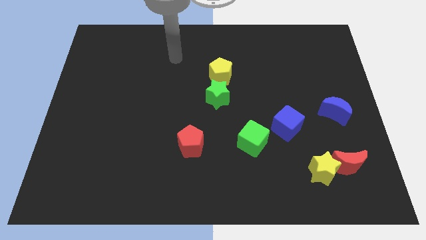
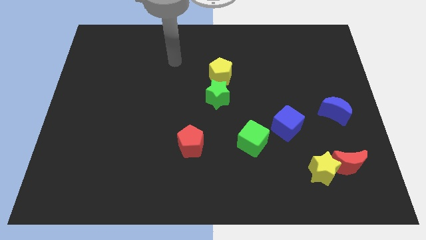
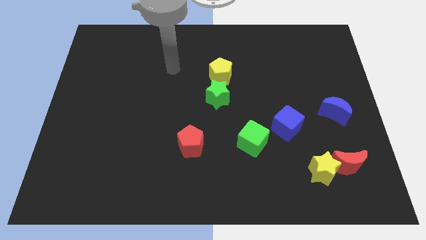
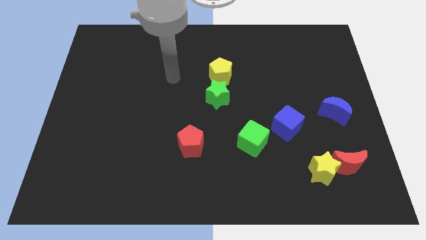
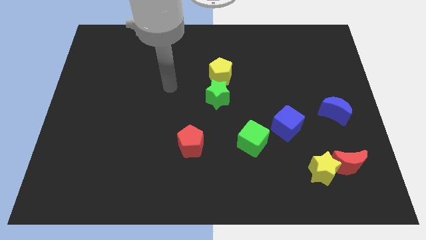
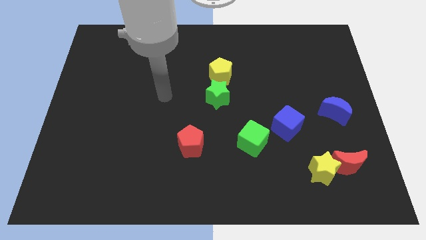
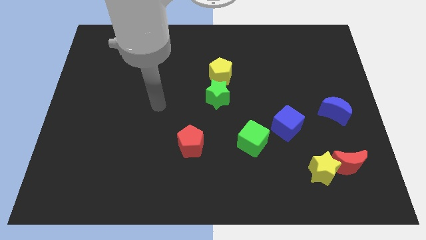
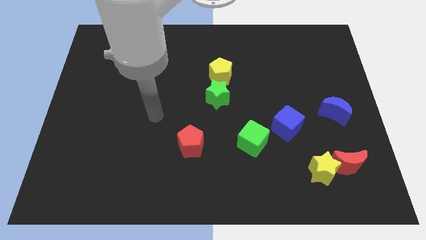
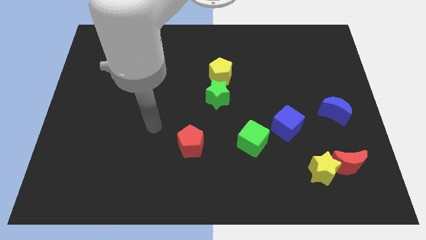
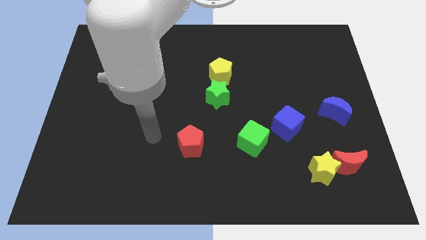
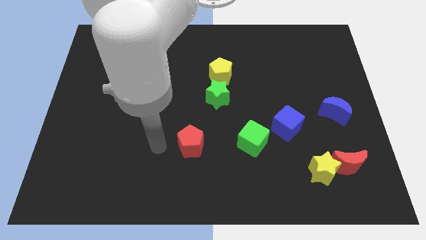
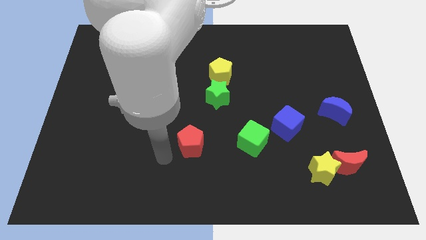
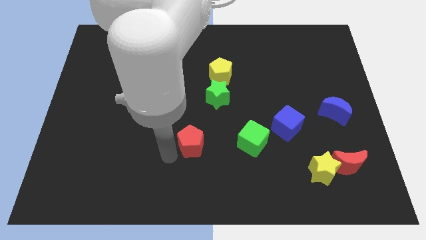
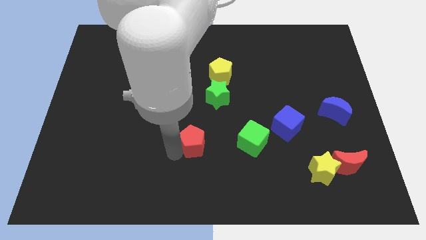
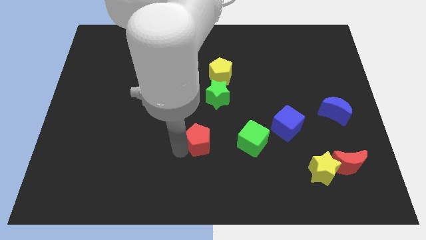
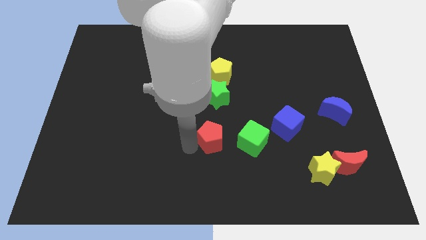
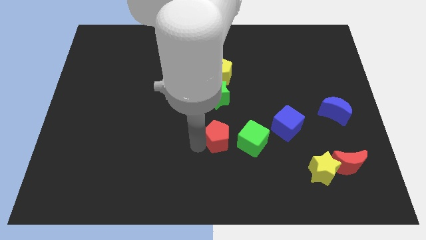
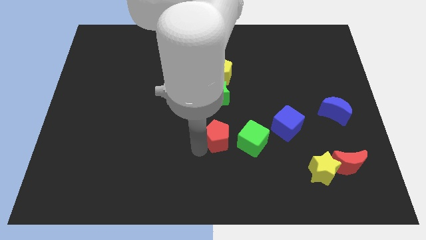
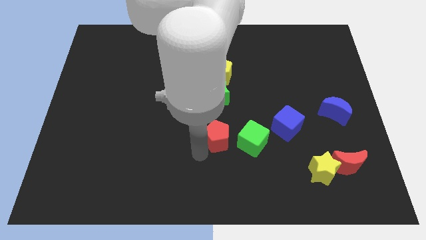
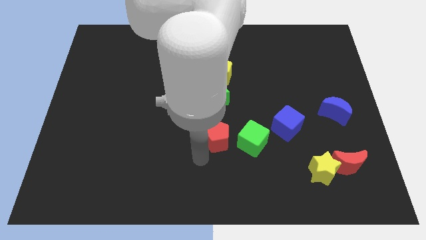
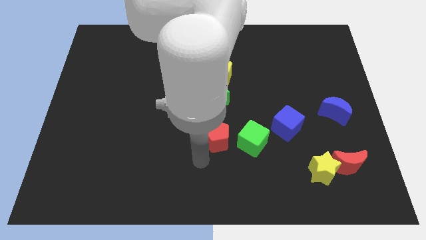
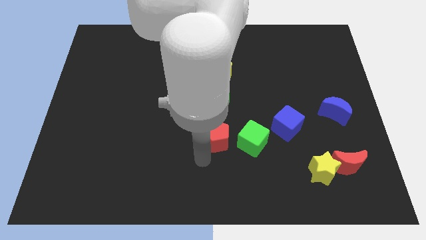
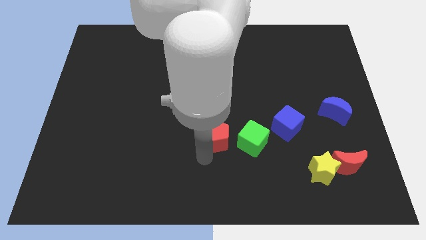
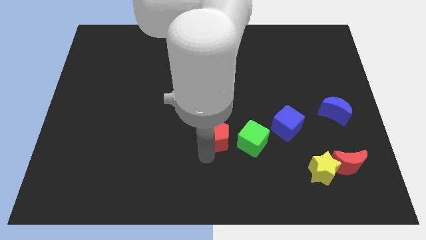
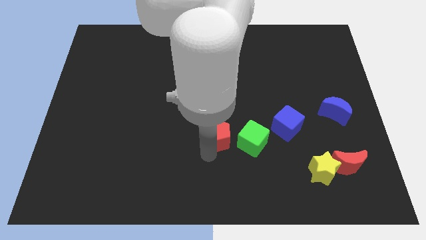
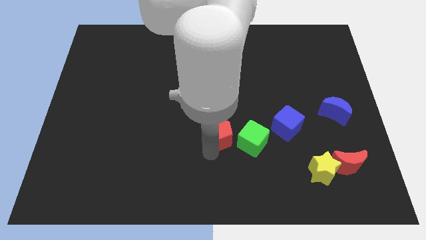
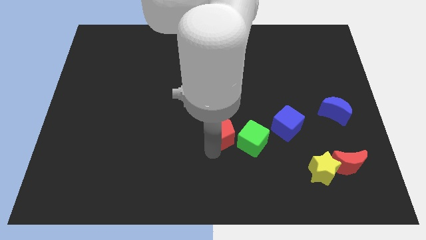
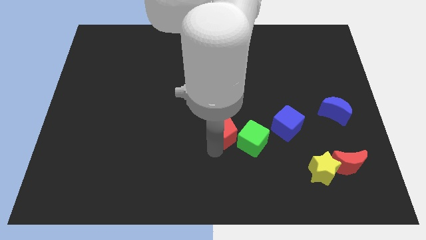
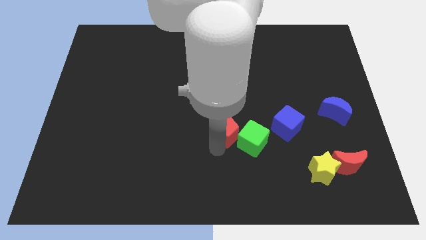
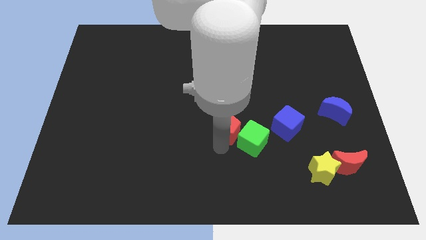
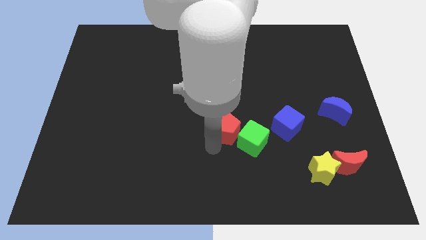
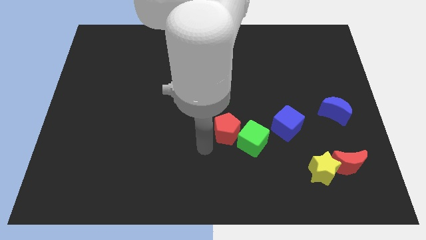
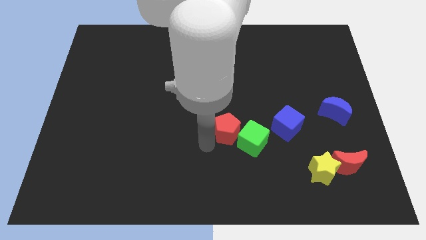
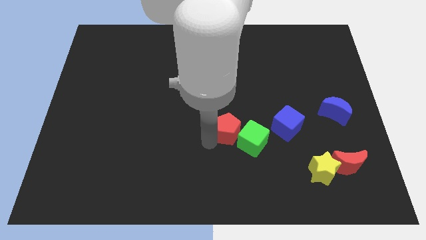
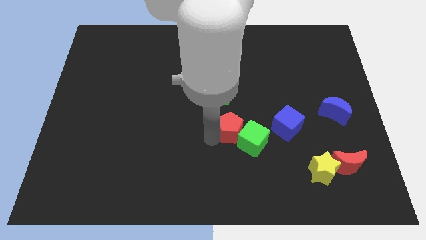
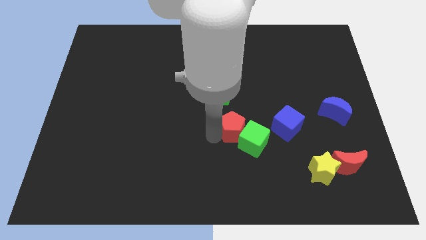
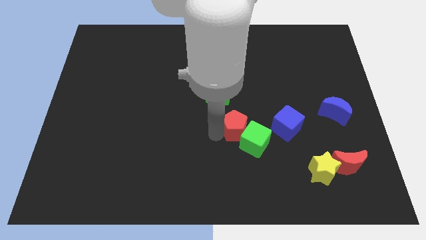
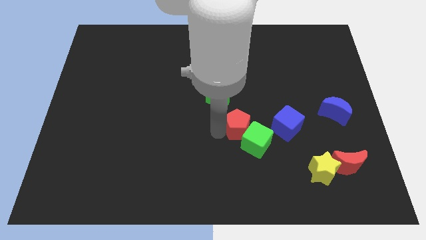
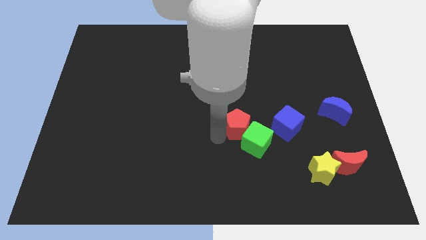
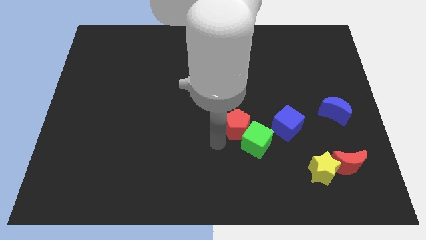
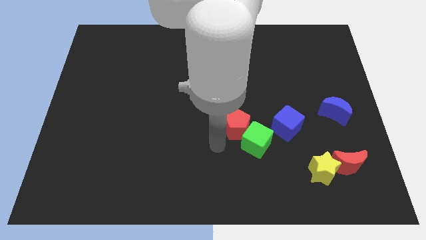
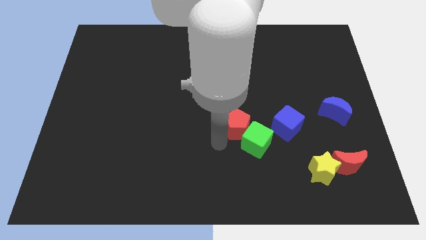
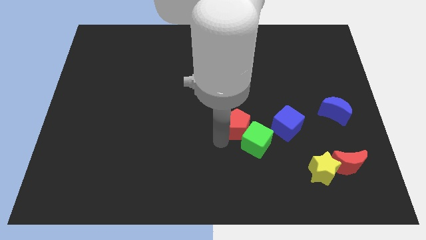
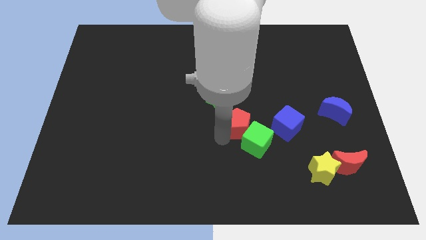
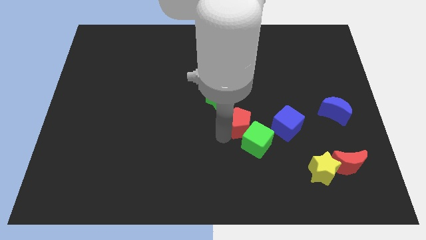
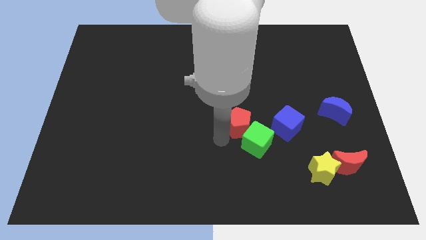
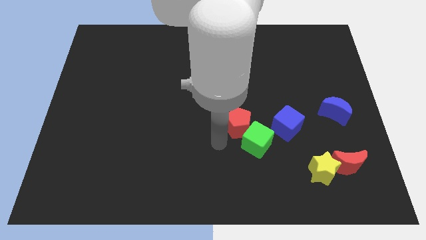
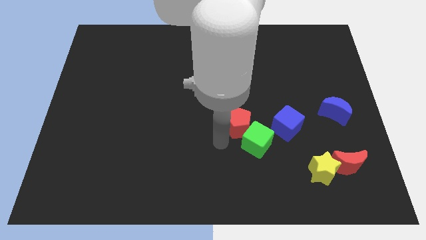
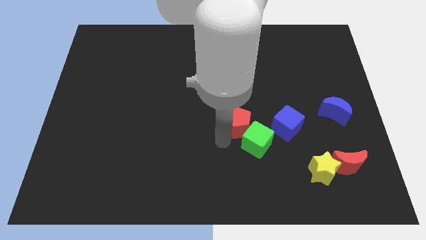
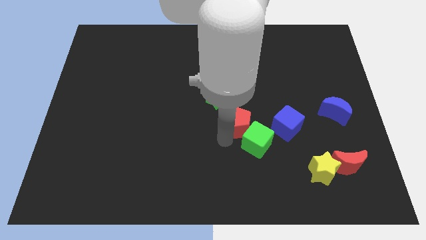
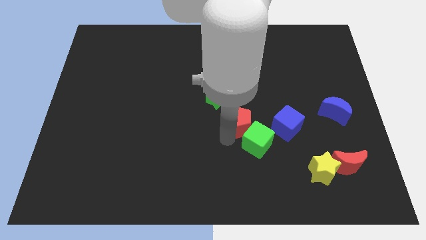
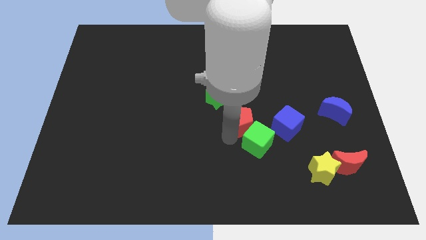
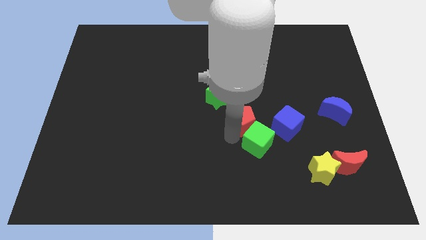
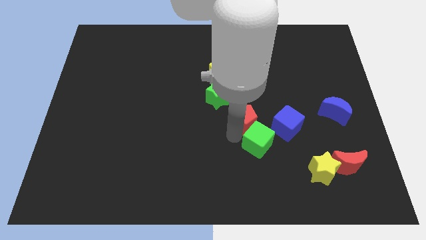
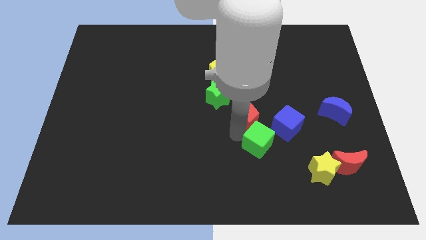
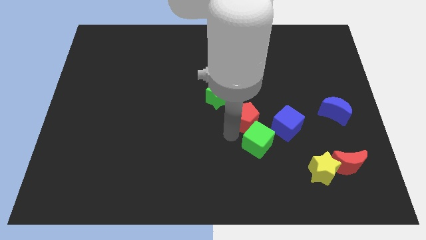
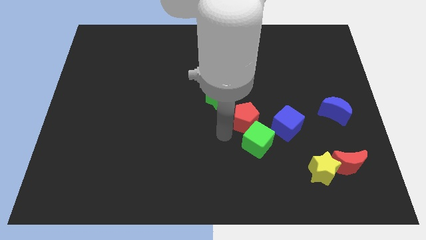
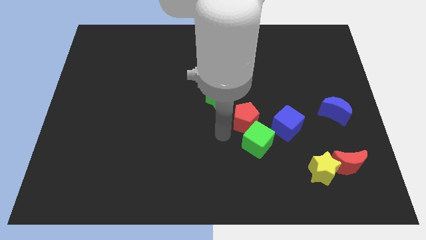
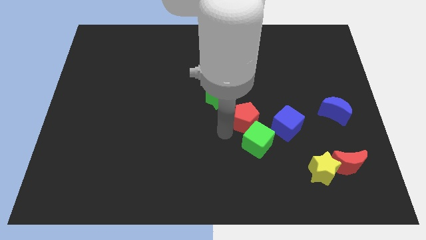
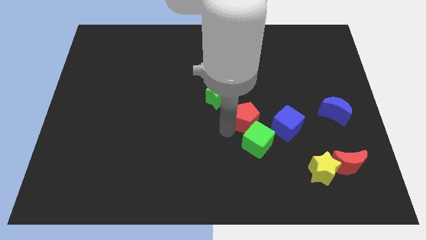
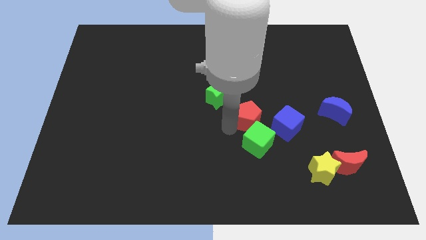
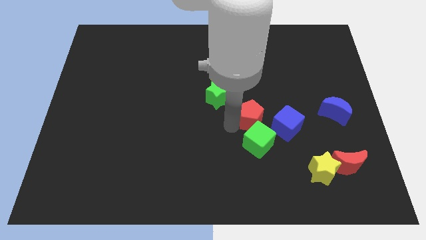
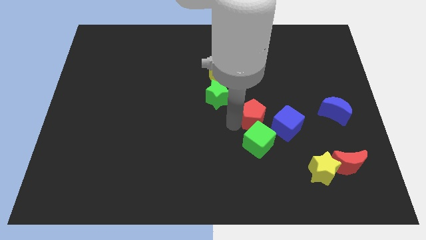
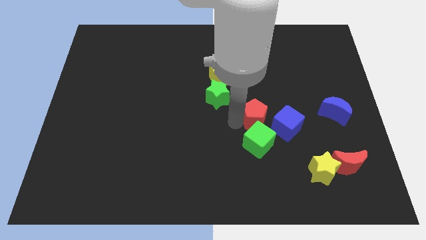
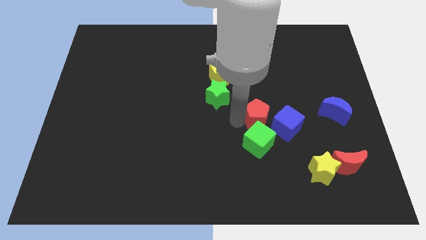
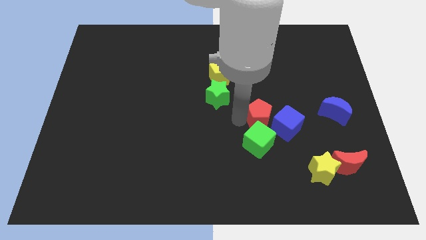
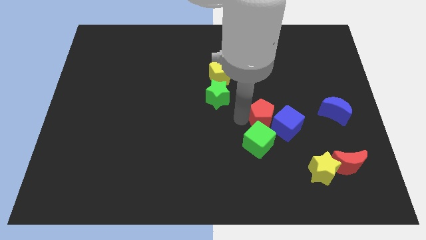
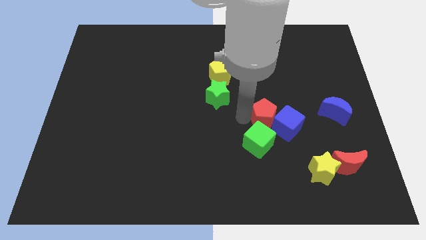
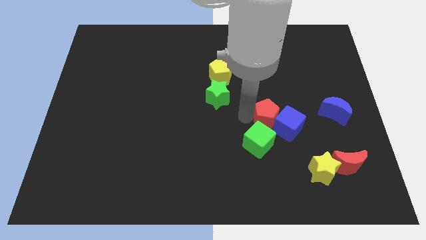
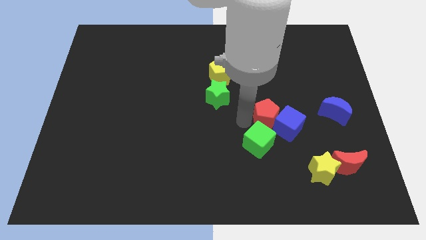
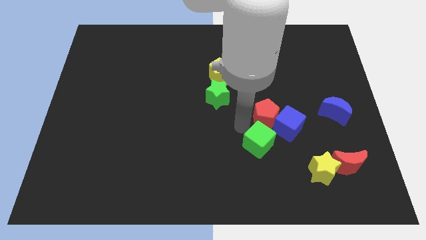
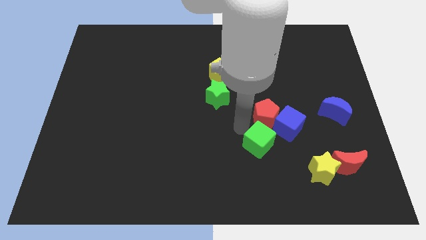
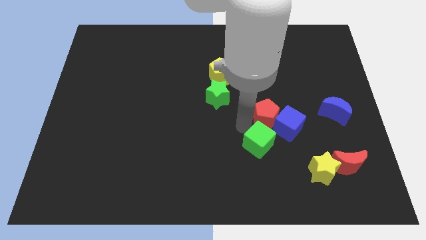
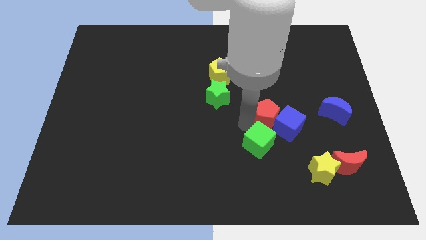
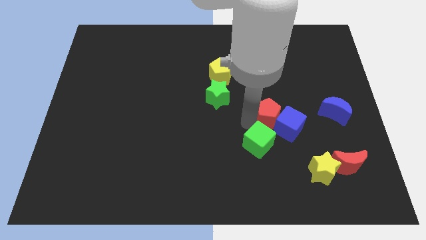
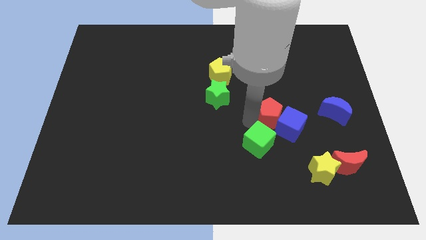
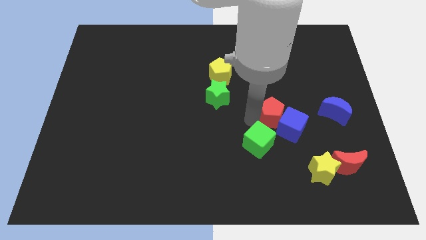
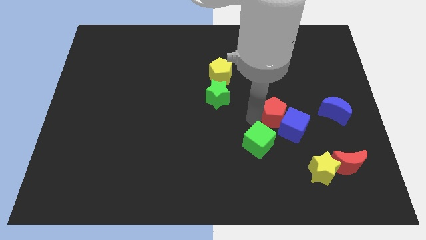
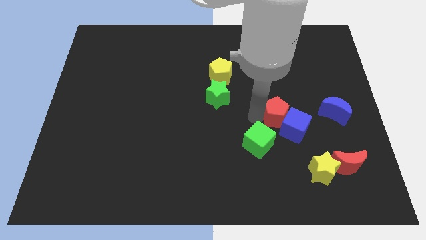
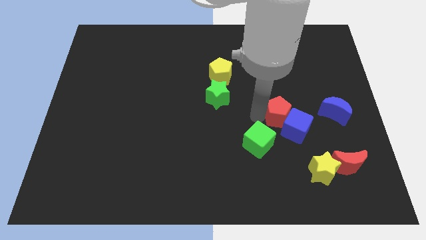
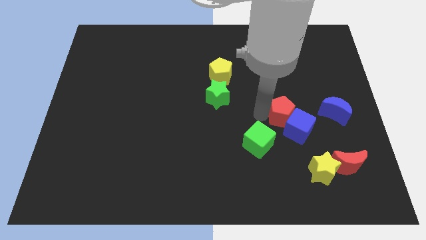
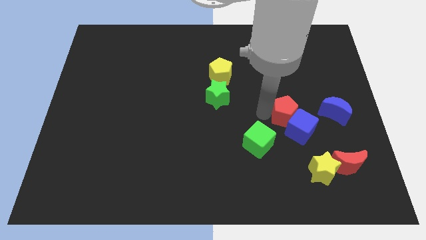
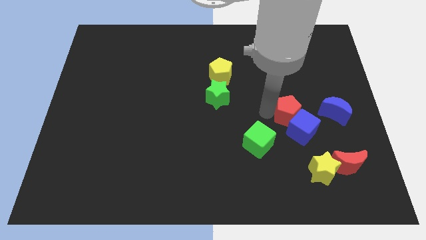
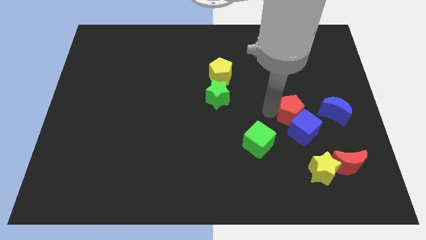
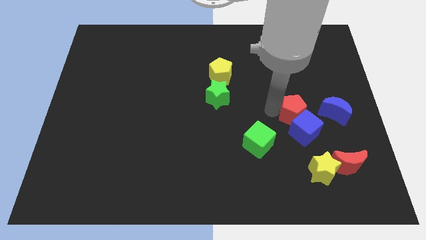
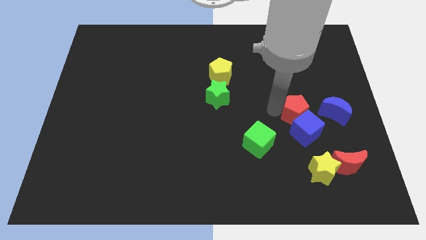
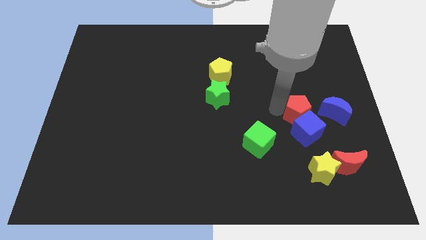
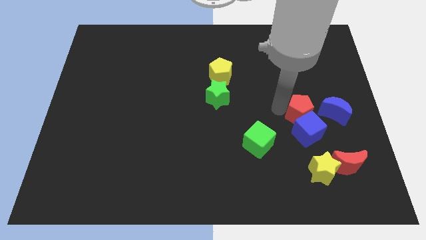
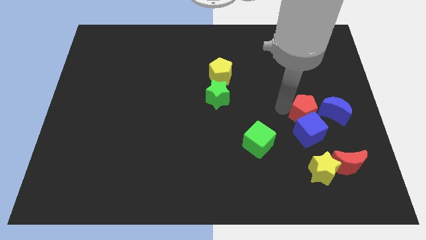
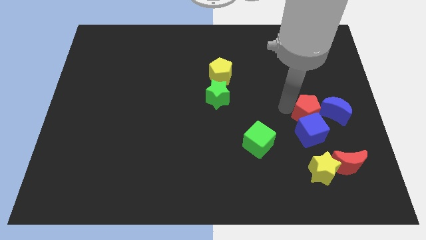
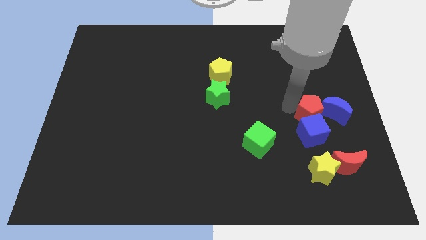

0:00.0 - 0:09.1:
put the red pentagon close to the blue moon
